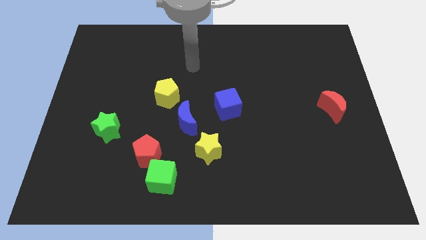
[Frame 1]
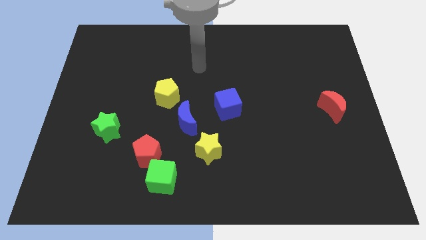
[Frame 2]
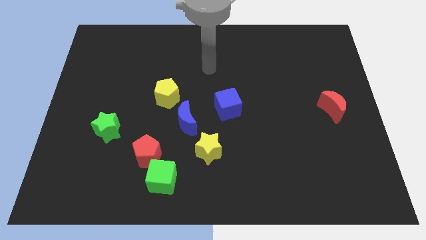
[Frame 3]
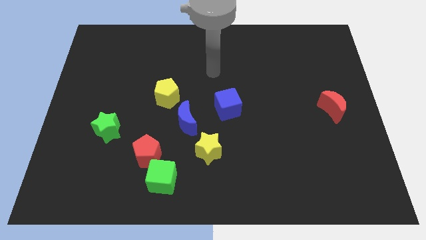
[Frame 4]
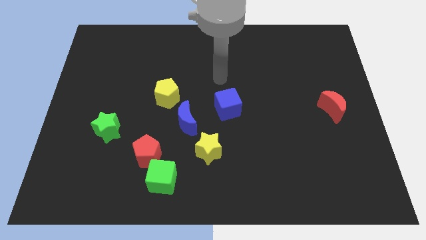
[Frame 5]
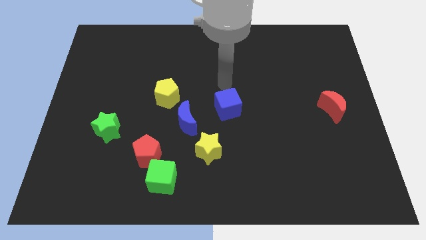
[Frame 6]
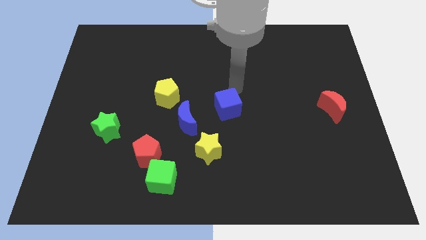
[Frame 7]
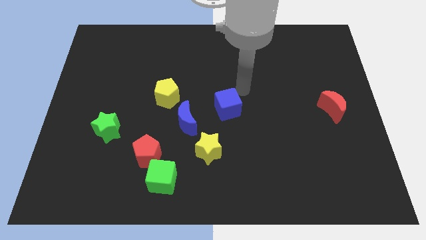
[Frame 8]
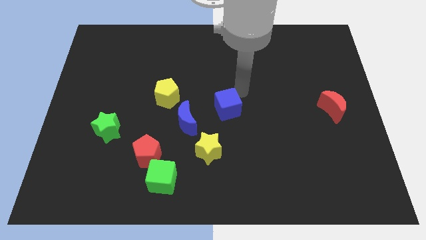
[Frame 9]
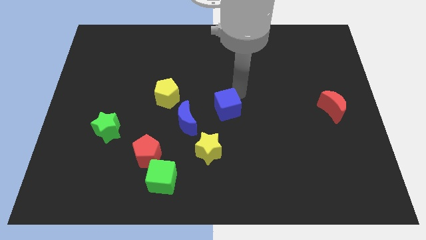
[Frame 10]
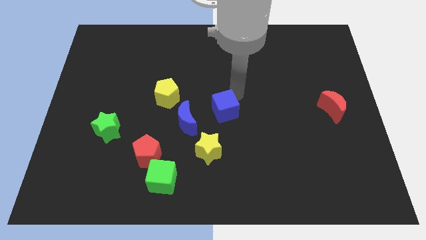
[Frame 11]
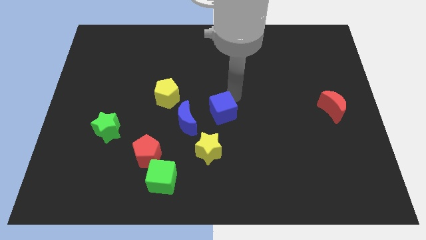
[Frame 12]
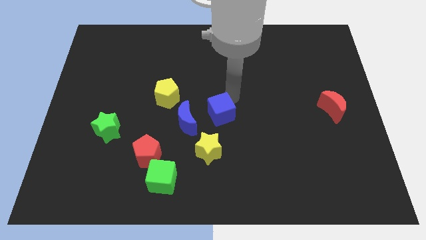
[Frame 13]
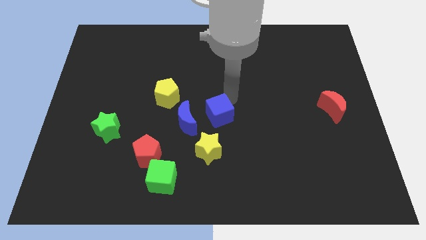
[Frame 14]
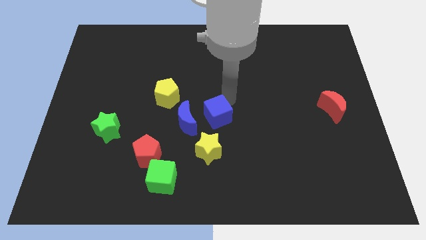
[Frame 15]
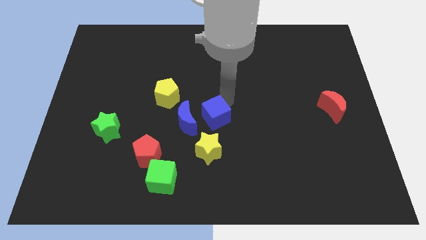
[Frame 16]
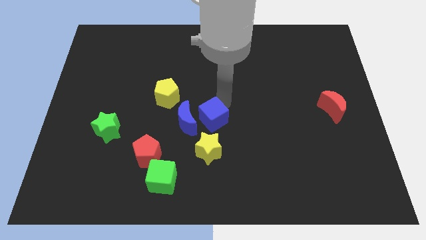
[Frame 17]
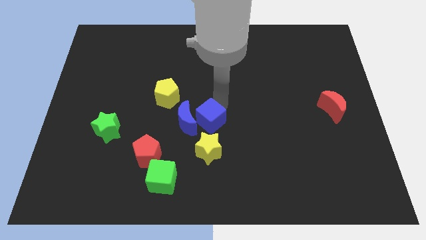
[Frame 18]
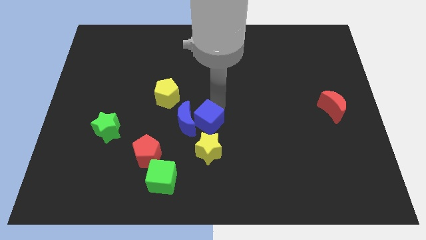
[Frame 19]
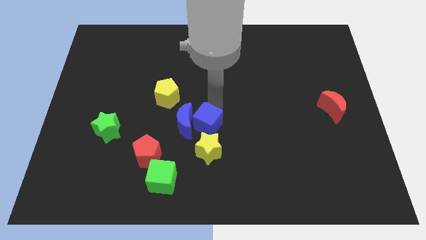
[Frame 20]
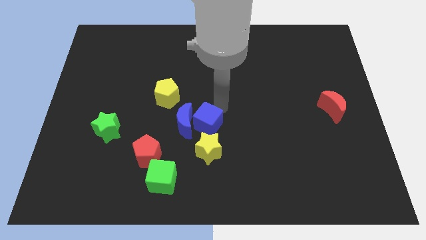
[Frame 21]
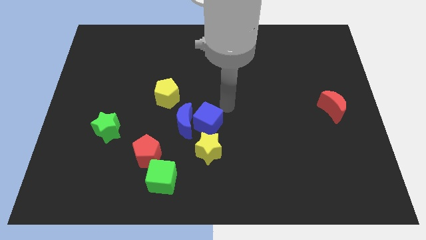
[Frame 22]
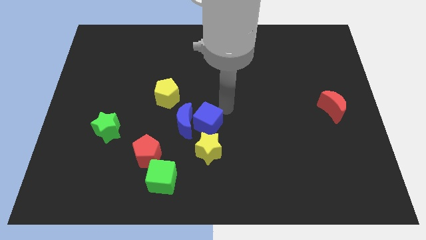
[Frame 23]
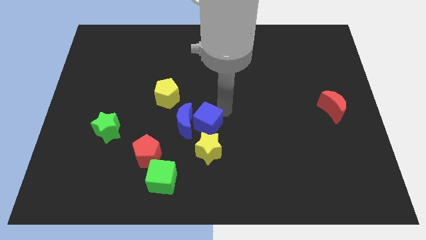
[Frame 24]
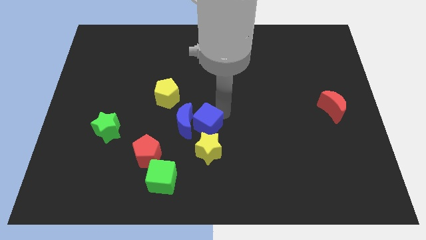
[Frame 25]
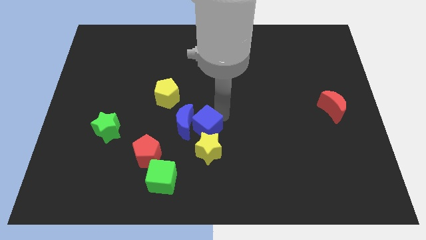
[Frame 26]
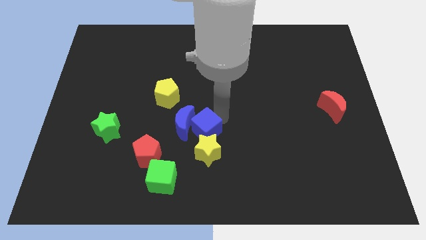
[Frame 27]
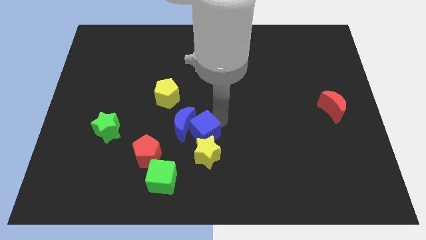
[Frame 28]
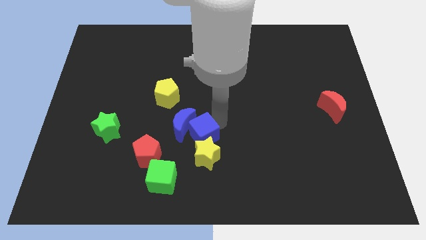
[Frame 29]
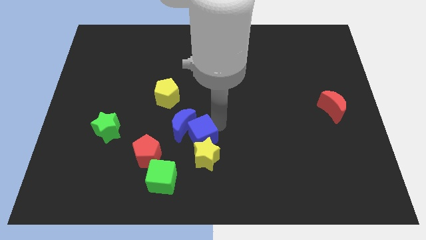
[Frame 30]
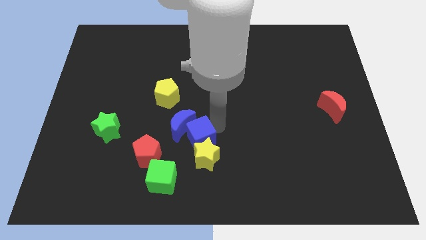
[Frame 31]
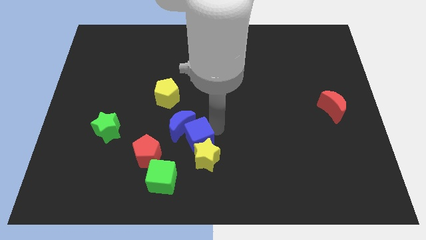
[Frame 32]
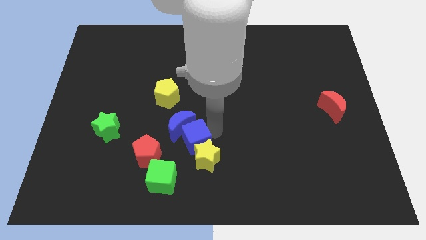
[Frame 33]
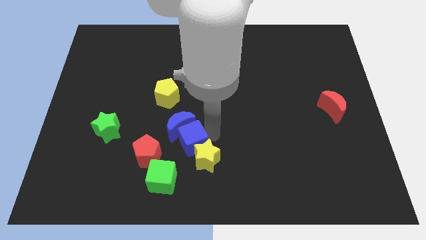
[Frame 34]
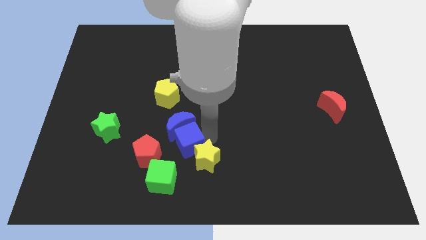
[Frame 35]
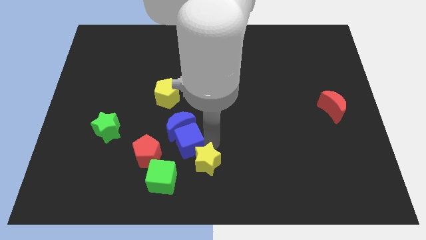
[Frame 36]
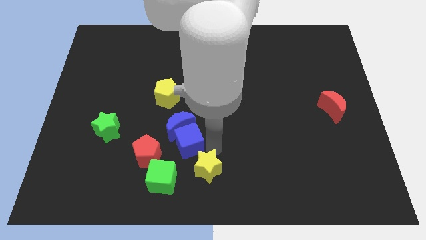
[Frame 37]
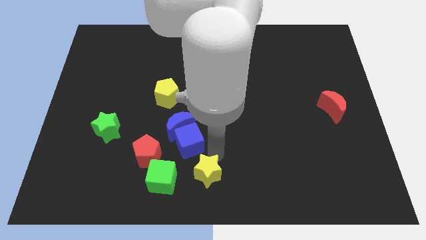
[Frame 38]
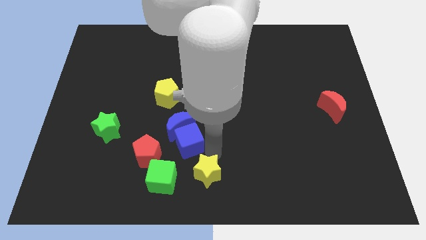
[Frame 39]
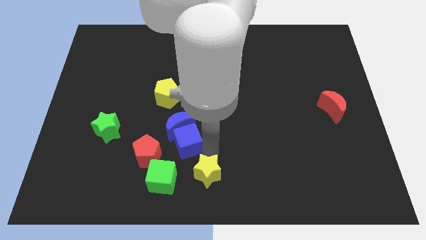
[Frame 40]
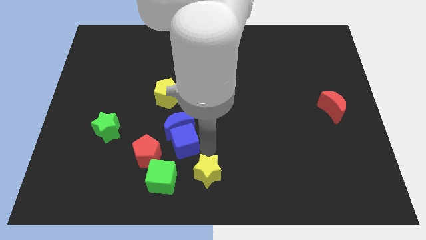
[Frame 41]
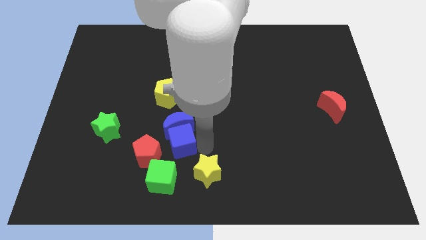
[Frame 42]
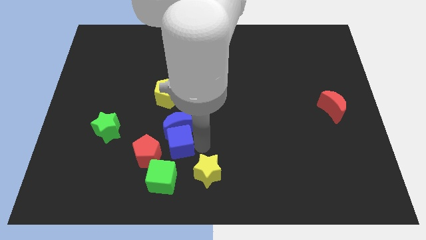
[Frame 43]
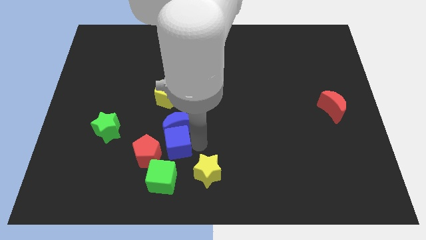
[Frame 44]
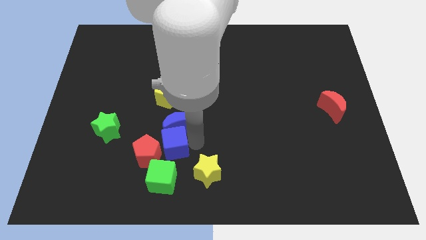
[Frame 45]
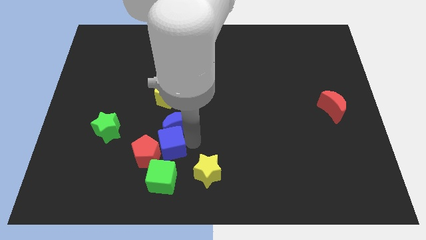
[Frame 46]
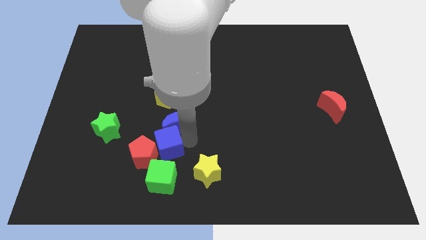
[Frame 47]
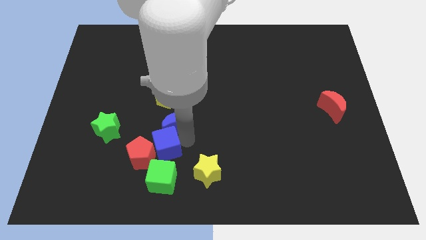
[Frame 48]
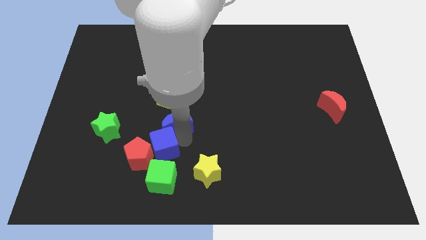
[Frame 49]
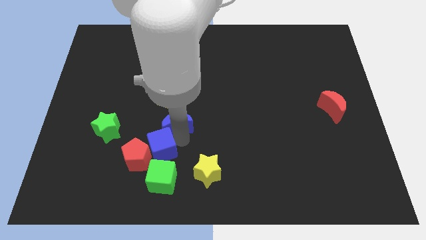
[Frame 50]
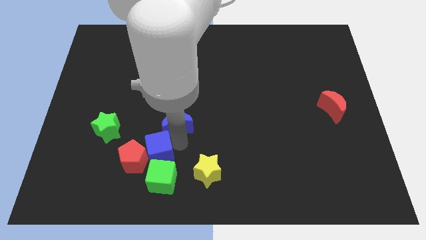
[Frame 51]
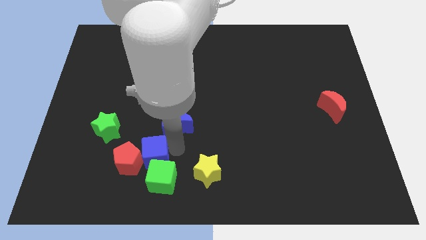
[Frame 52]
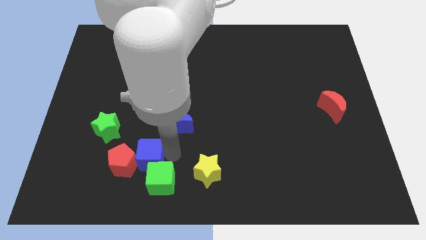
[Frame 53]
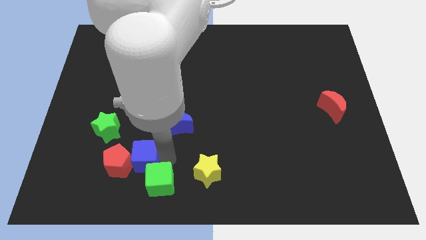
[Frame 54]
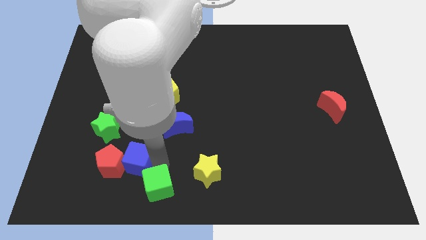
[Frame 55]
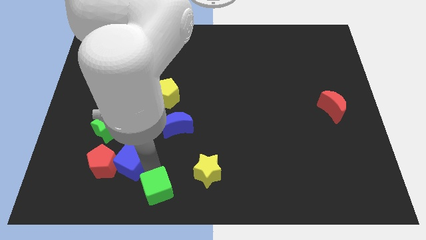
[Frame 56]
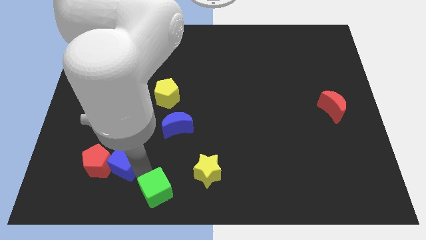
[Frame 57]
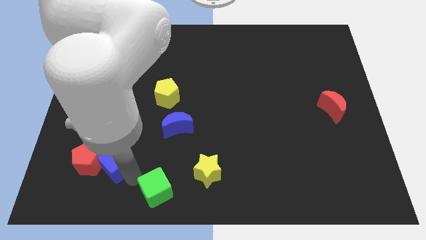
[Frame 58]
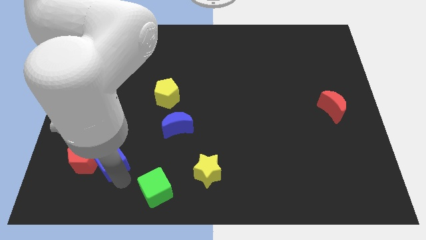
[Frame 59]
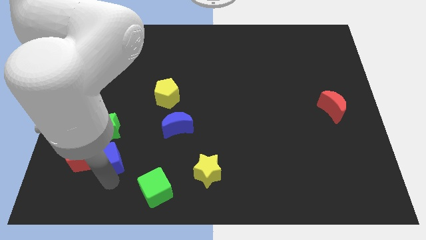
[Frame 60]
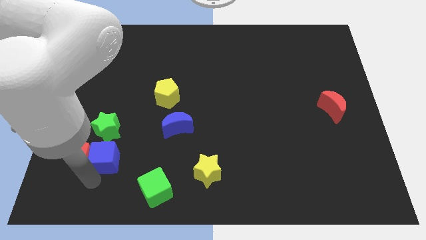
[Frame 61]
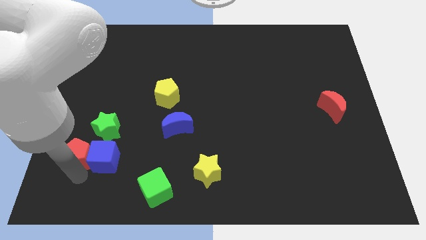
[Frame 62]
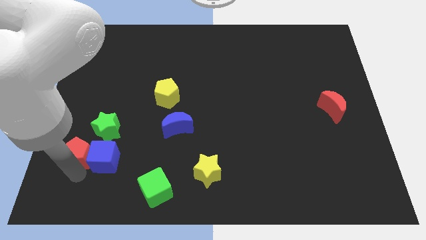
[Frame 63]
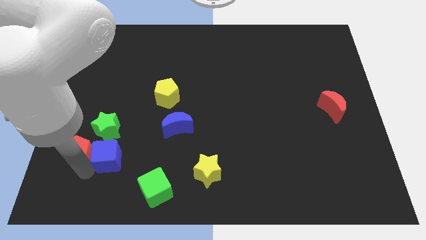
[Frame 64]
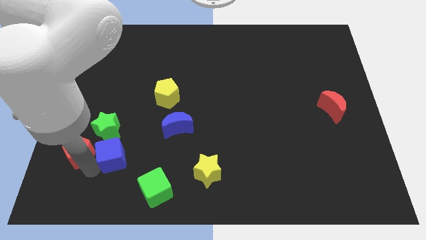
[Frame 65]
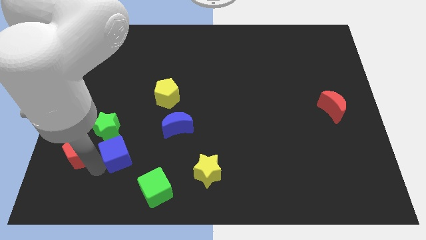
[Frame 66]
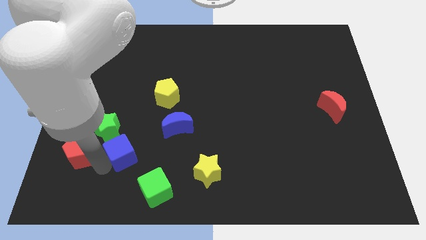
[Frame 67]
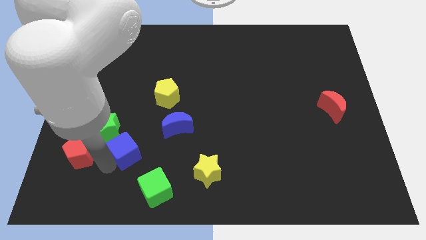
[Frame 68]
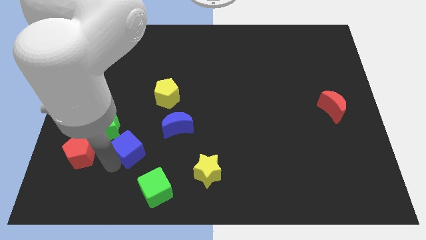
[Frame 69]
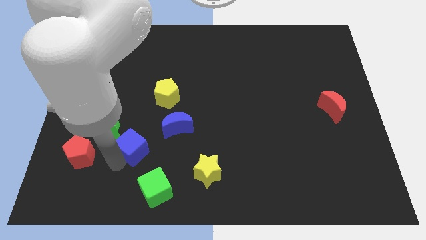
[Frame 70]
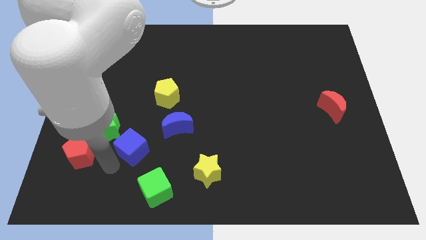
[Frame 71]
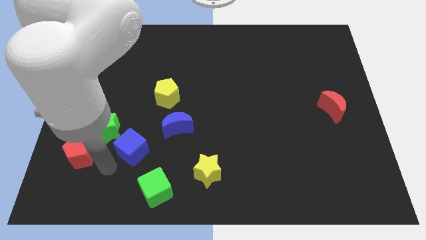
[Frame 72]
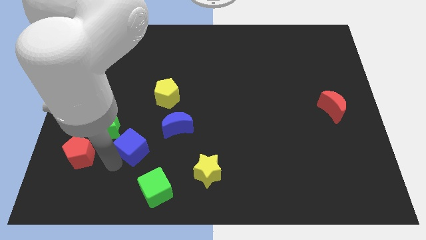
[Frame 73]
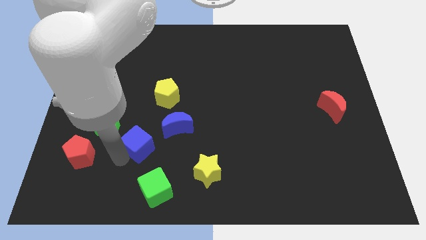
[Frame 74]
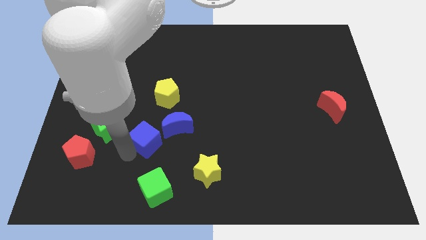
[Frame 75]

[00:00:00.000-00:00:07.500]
push the blue cube left of the blue moon
